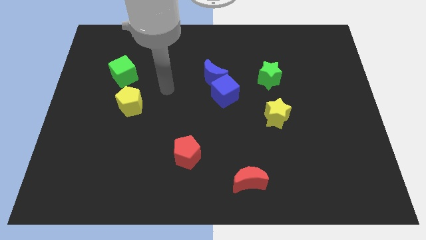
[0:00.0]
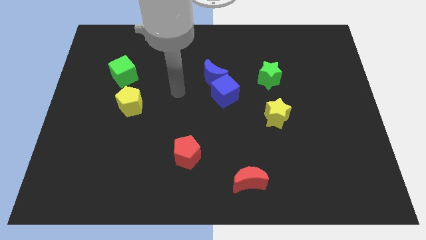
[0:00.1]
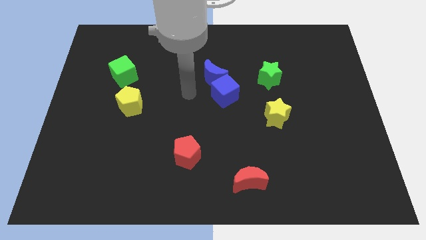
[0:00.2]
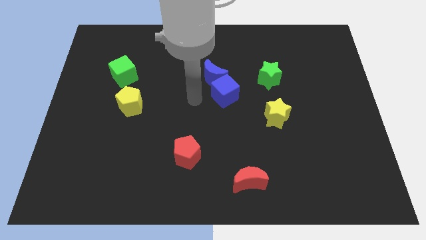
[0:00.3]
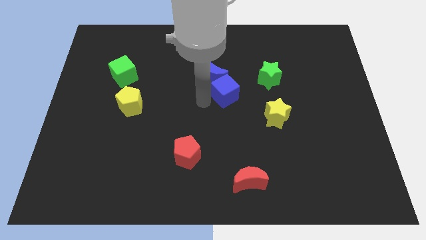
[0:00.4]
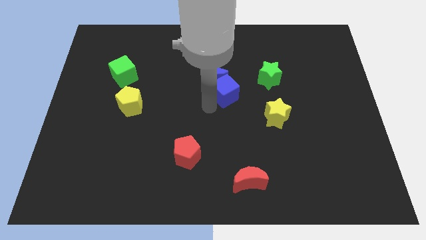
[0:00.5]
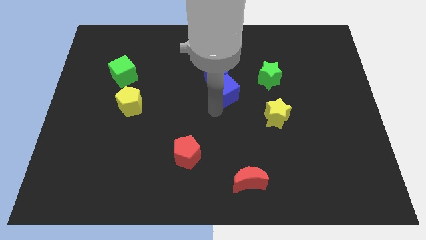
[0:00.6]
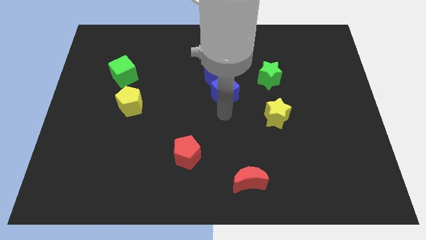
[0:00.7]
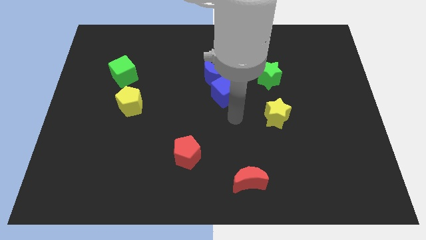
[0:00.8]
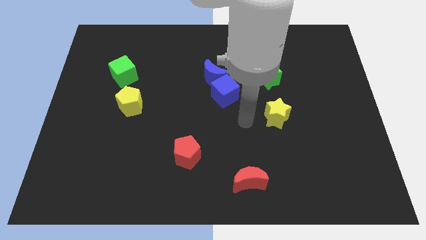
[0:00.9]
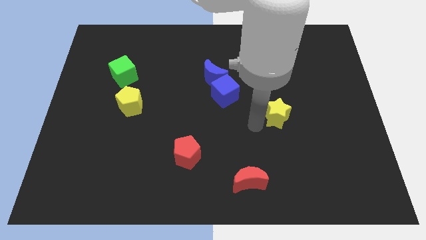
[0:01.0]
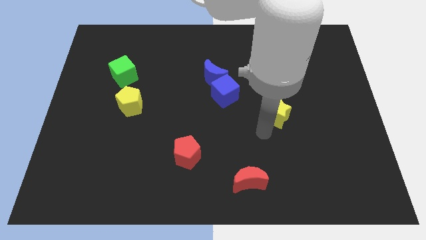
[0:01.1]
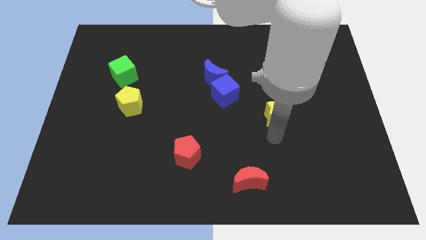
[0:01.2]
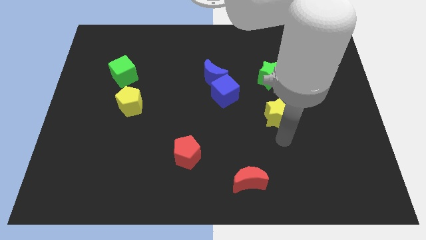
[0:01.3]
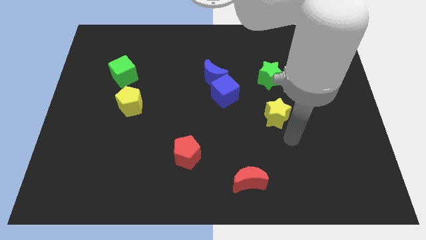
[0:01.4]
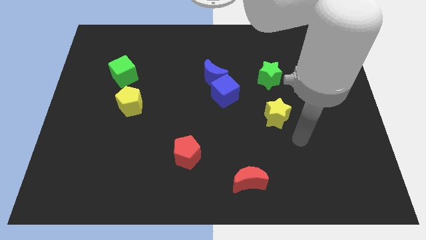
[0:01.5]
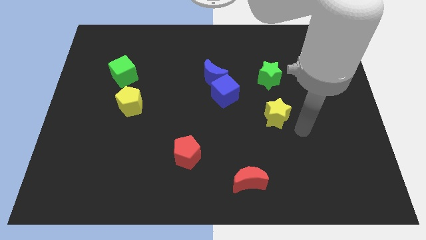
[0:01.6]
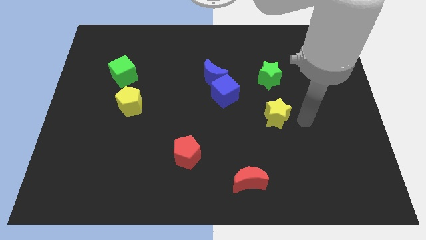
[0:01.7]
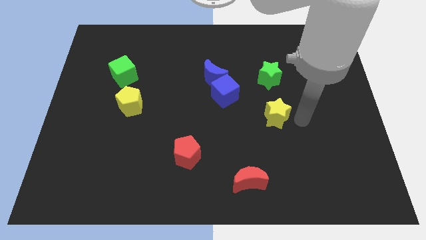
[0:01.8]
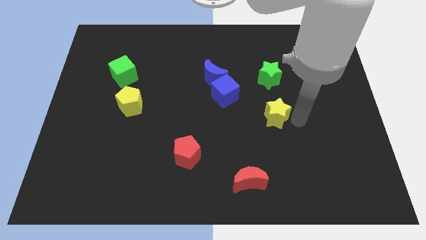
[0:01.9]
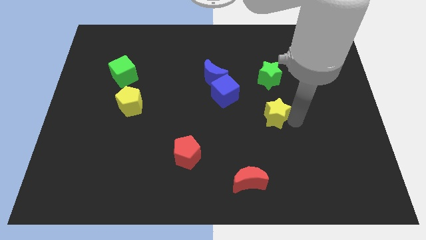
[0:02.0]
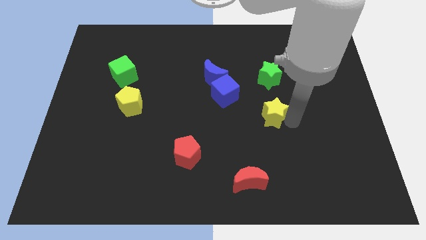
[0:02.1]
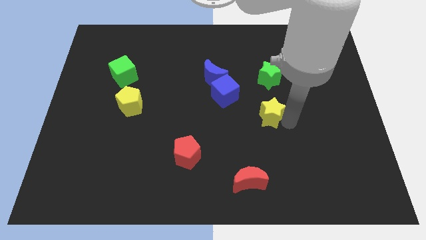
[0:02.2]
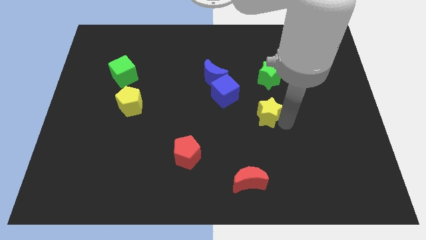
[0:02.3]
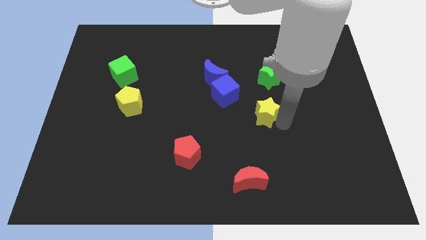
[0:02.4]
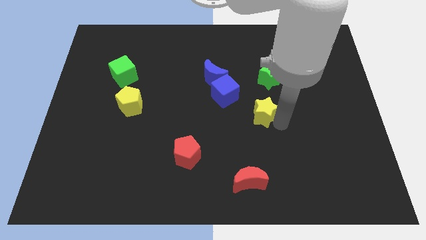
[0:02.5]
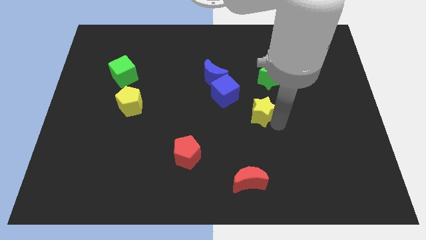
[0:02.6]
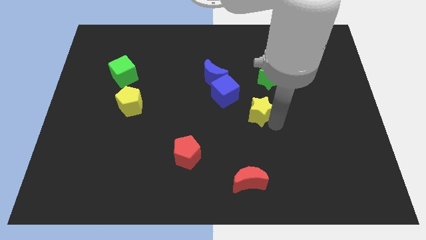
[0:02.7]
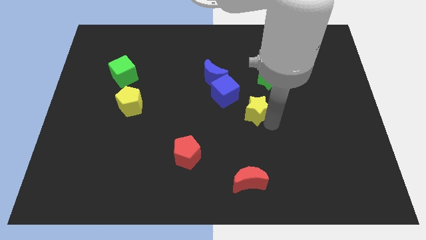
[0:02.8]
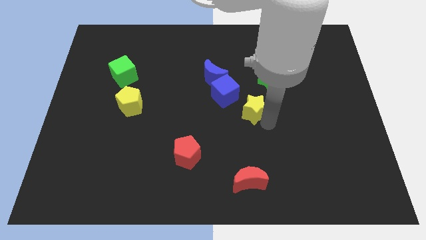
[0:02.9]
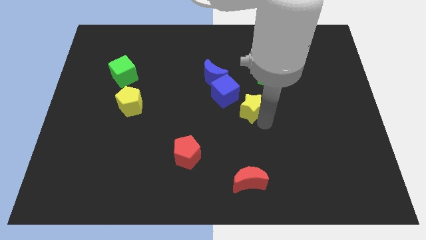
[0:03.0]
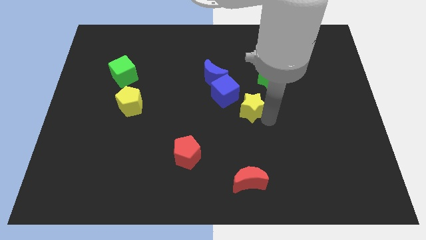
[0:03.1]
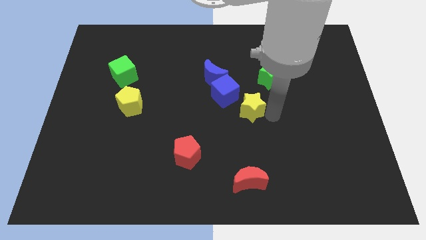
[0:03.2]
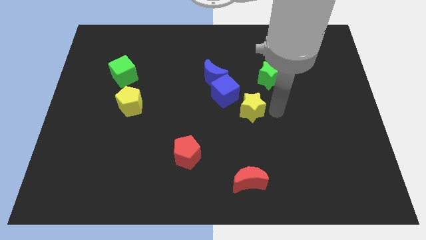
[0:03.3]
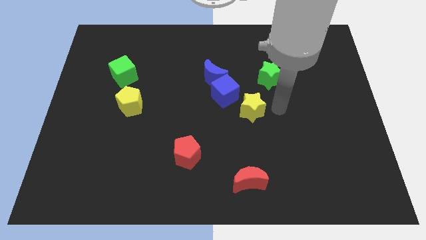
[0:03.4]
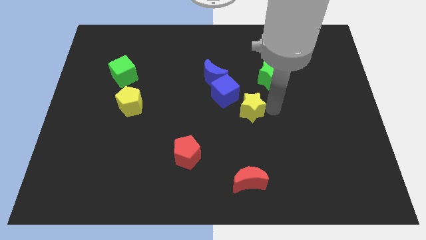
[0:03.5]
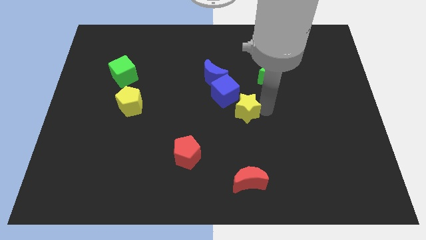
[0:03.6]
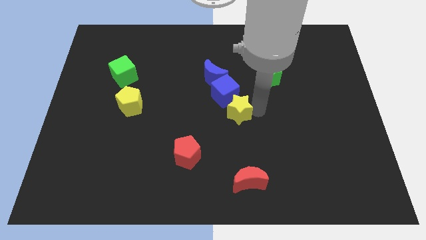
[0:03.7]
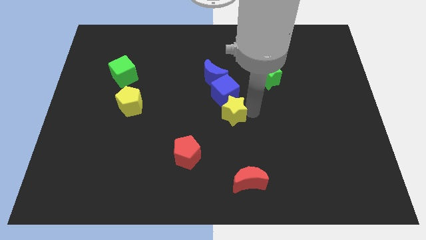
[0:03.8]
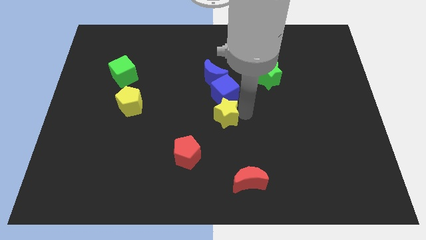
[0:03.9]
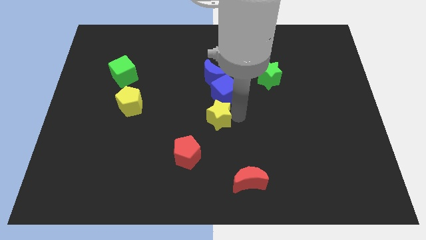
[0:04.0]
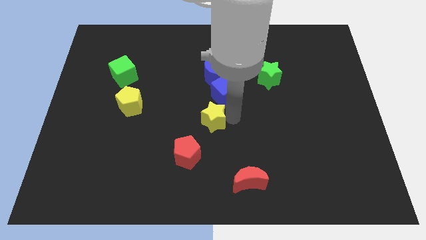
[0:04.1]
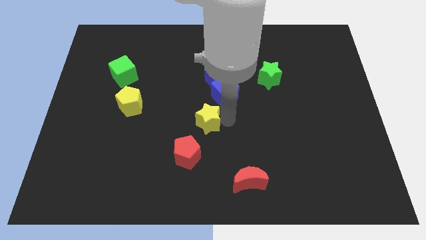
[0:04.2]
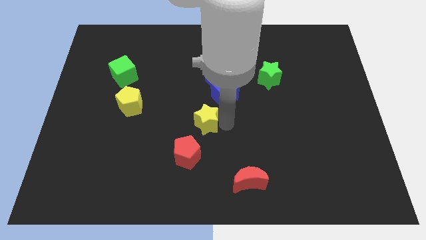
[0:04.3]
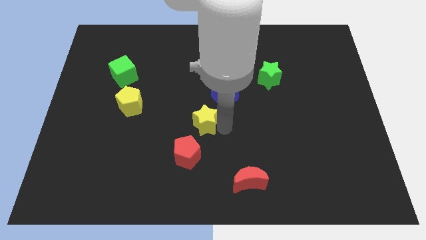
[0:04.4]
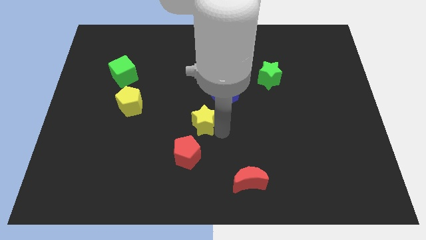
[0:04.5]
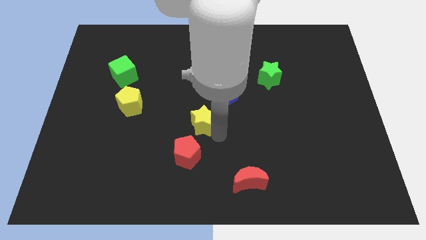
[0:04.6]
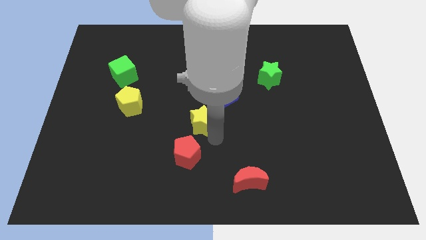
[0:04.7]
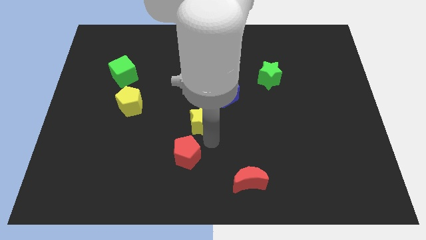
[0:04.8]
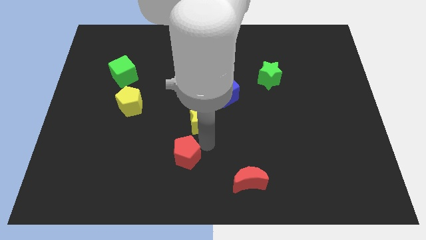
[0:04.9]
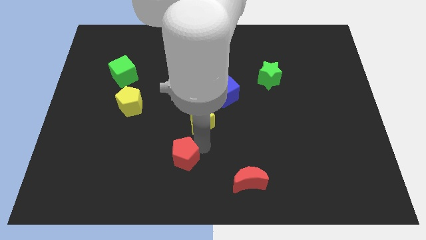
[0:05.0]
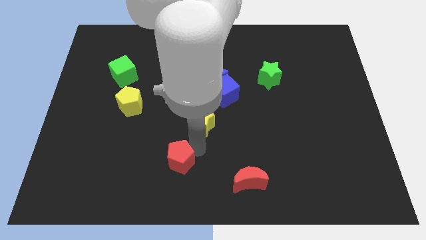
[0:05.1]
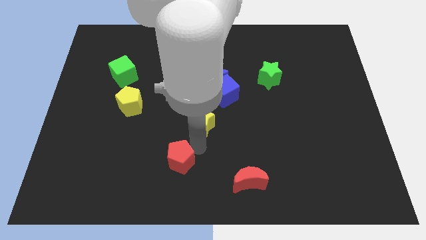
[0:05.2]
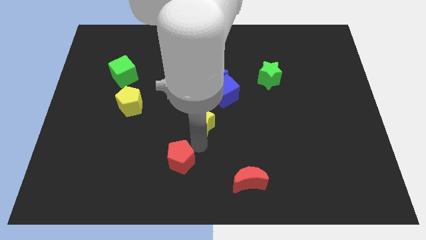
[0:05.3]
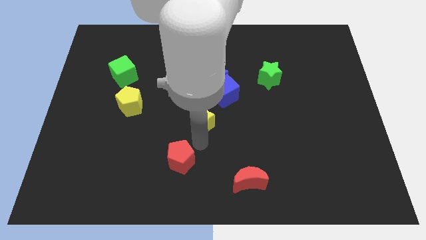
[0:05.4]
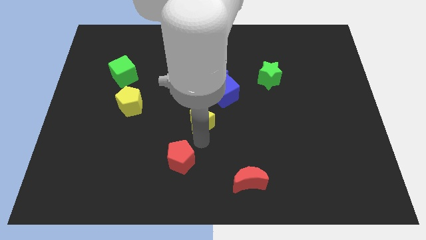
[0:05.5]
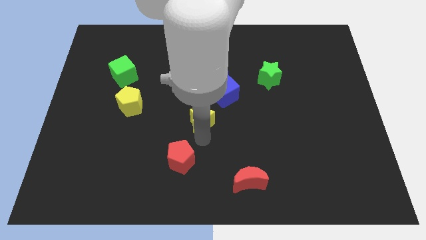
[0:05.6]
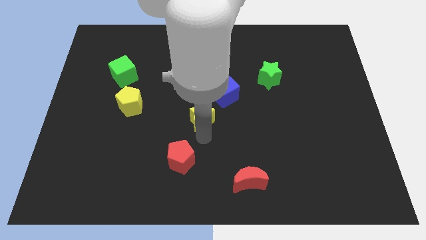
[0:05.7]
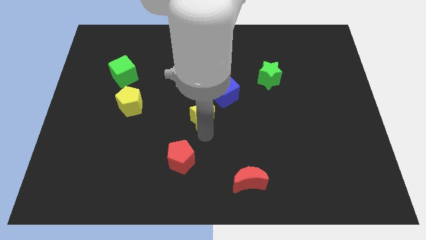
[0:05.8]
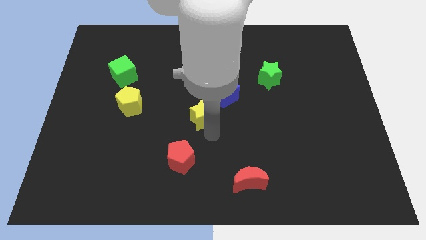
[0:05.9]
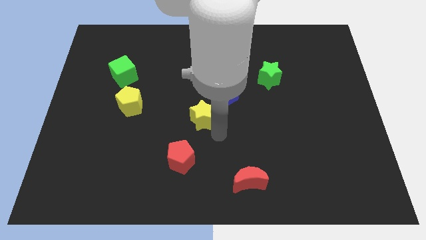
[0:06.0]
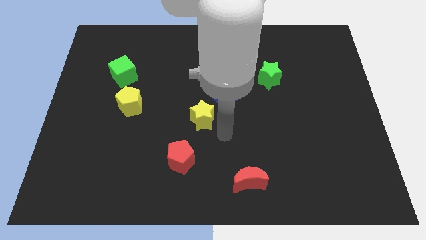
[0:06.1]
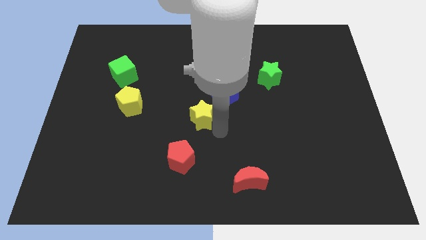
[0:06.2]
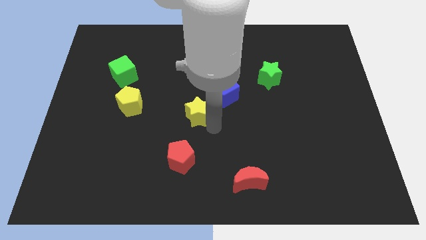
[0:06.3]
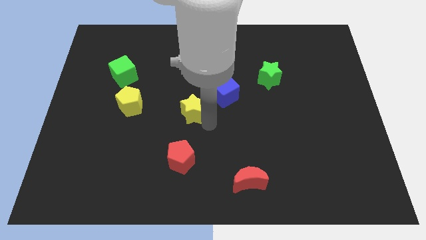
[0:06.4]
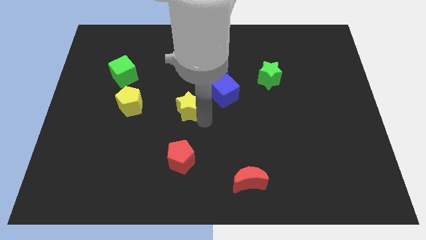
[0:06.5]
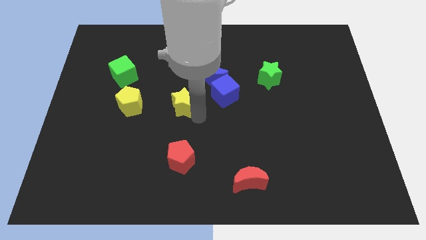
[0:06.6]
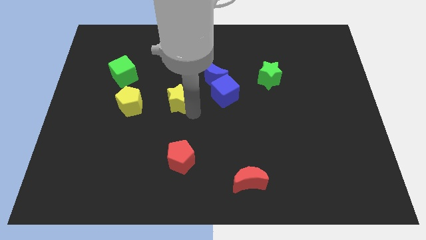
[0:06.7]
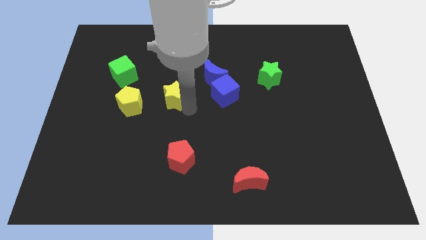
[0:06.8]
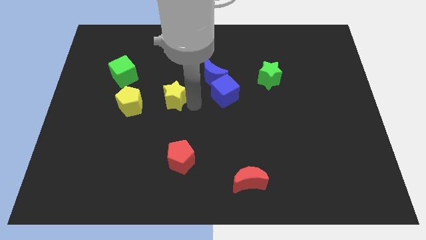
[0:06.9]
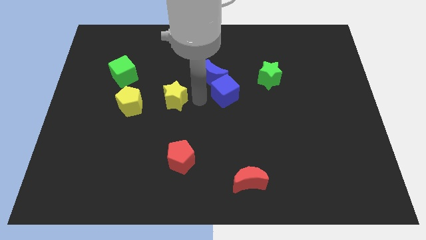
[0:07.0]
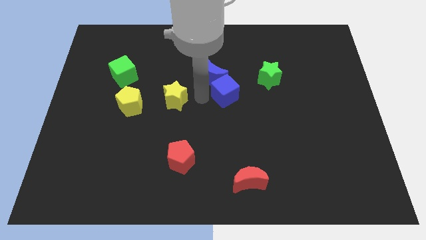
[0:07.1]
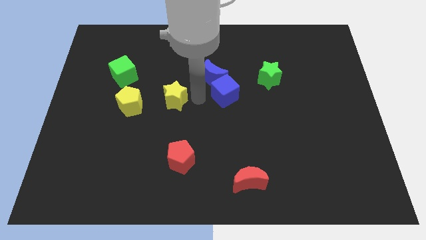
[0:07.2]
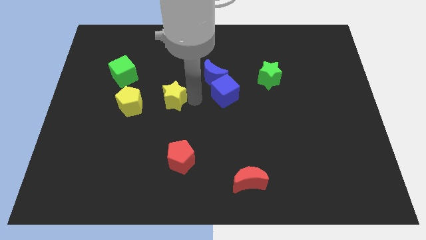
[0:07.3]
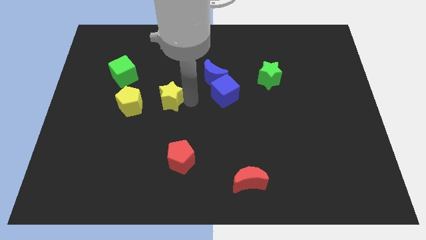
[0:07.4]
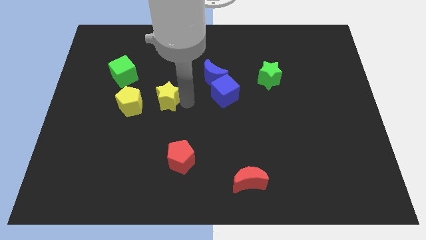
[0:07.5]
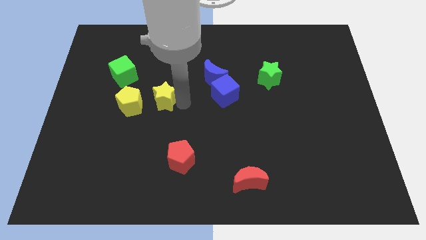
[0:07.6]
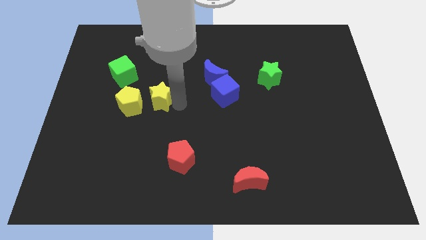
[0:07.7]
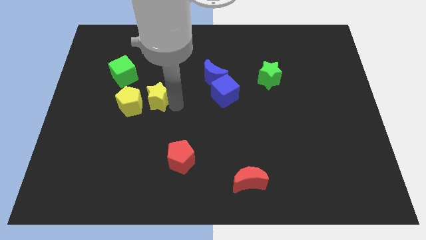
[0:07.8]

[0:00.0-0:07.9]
move the yellow star towards the yellow pentagon
